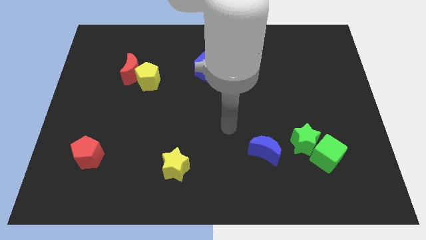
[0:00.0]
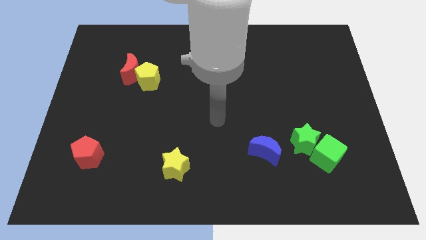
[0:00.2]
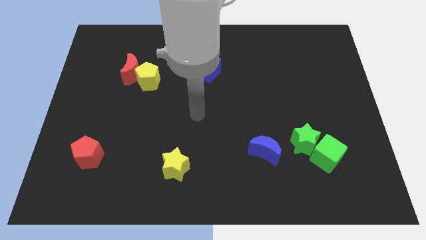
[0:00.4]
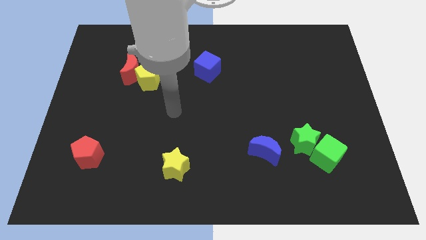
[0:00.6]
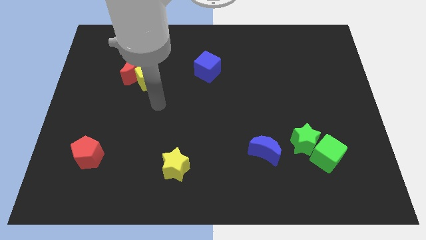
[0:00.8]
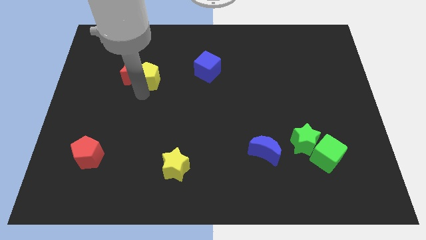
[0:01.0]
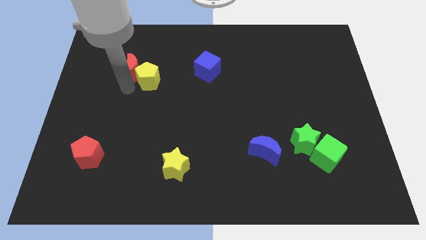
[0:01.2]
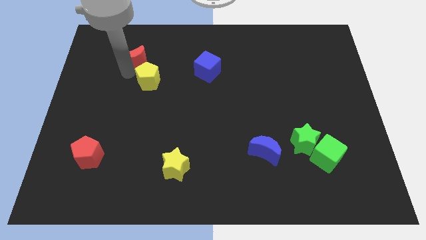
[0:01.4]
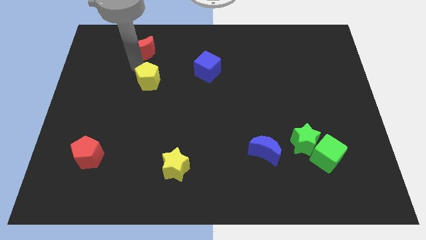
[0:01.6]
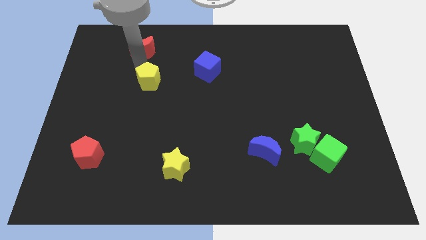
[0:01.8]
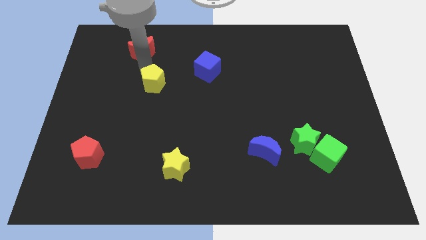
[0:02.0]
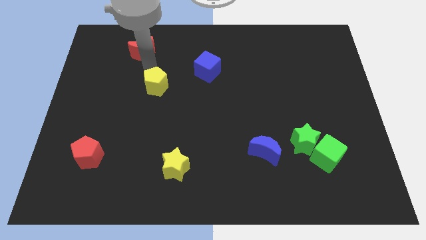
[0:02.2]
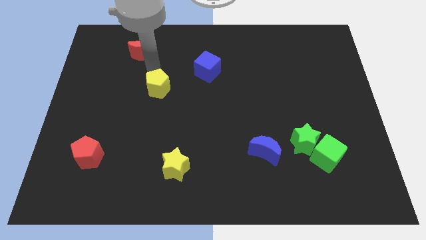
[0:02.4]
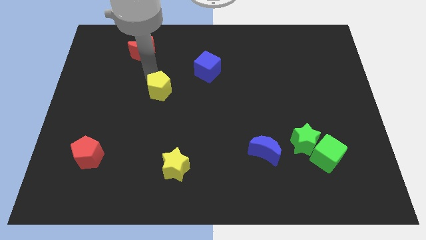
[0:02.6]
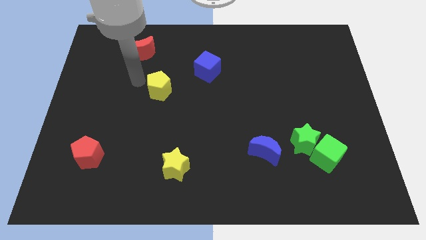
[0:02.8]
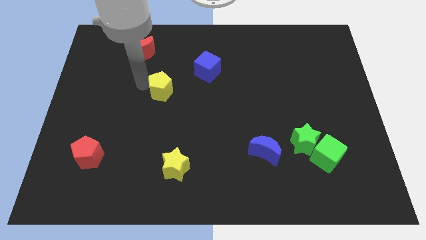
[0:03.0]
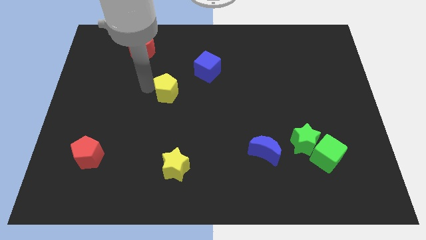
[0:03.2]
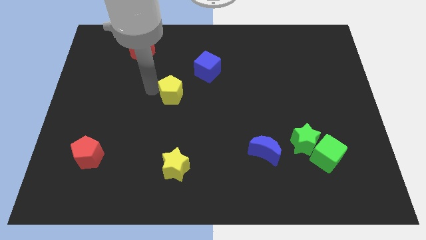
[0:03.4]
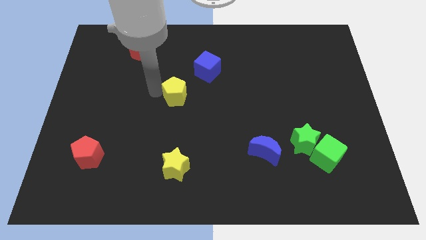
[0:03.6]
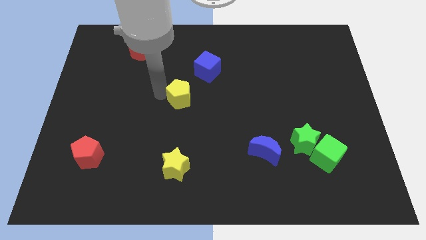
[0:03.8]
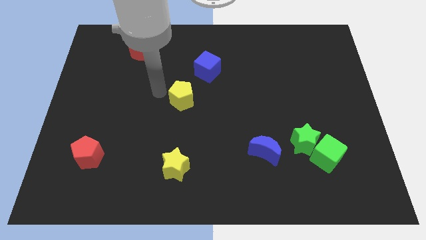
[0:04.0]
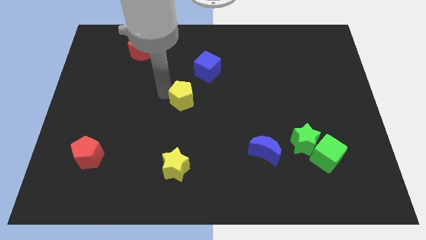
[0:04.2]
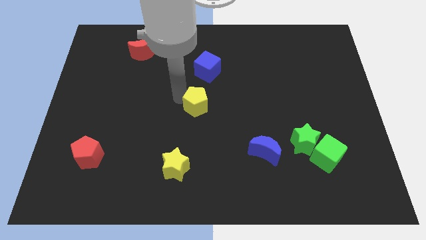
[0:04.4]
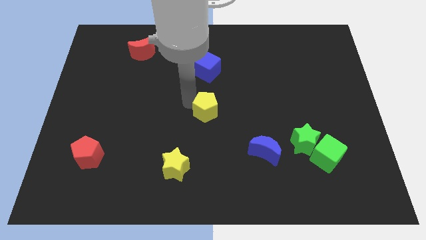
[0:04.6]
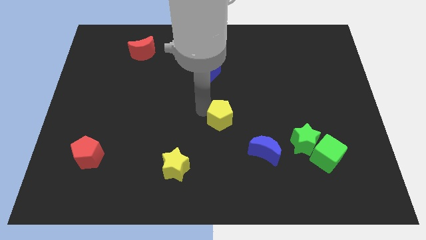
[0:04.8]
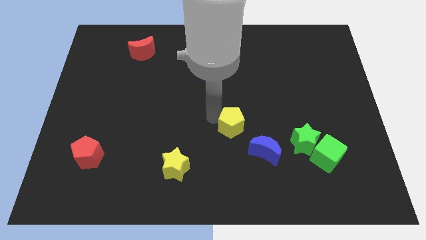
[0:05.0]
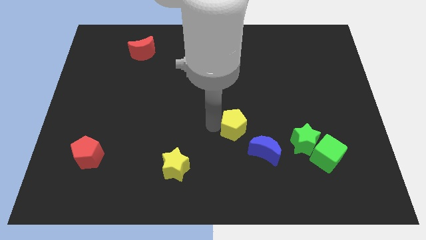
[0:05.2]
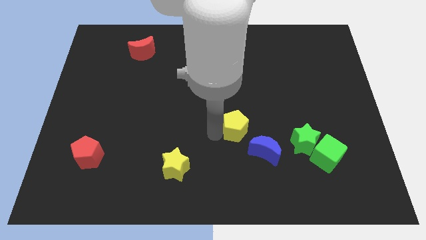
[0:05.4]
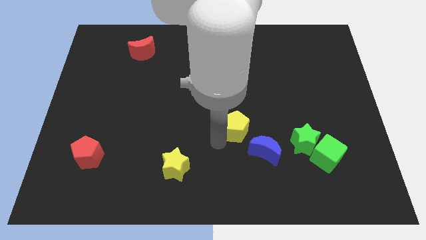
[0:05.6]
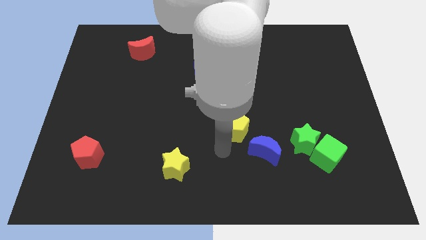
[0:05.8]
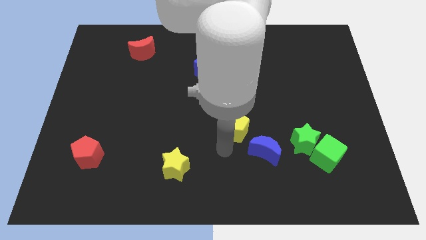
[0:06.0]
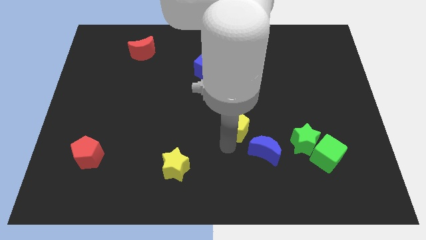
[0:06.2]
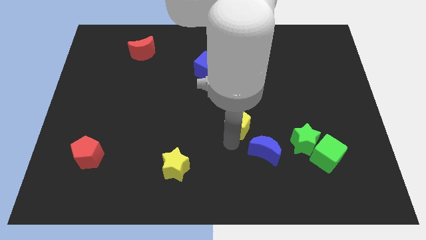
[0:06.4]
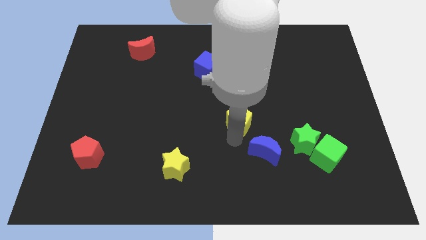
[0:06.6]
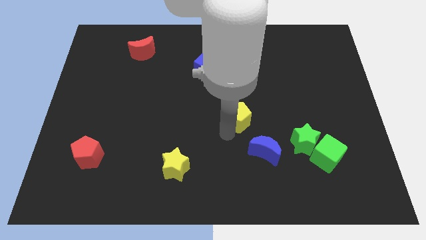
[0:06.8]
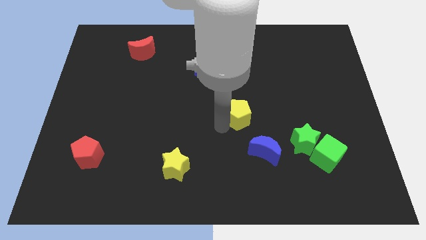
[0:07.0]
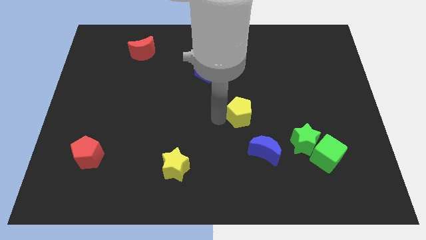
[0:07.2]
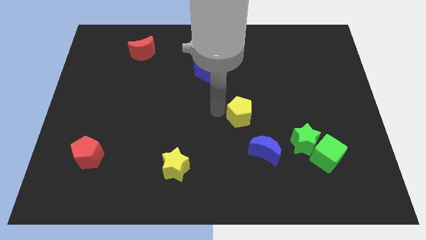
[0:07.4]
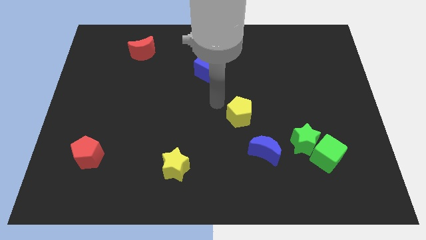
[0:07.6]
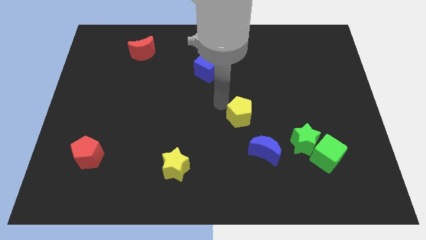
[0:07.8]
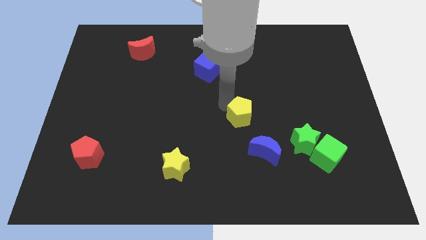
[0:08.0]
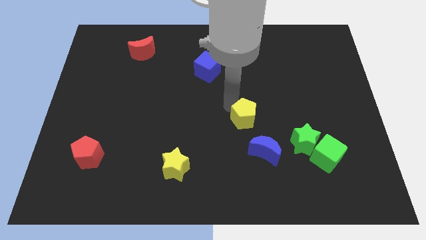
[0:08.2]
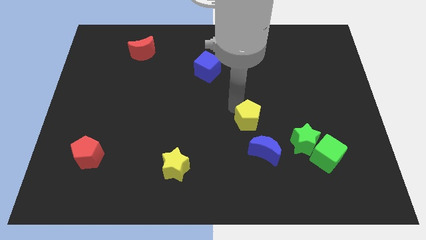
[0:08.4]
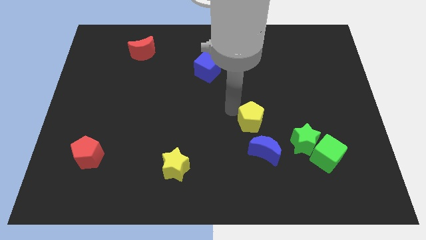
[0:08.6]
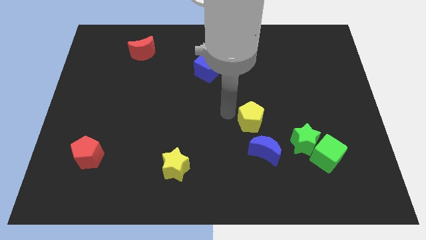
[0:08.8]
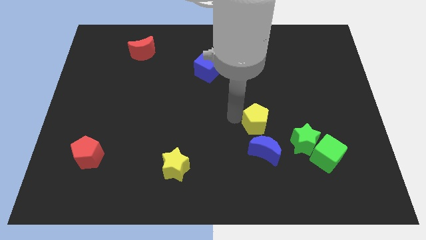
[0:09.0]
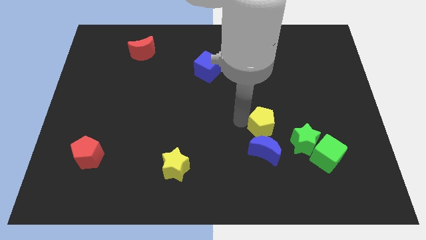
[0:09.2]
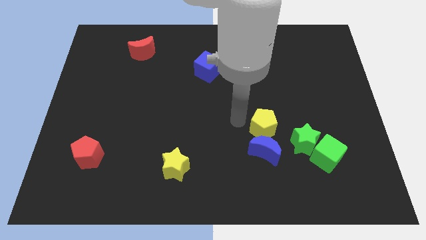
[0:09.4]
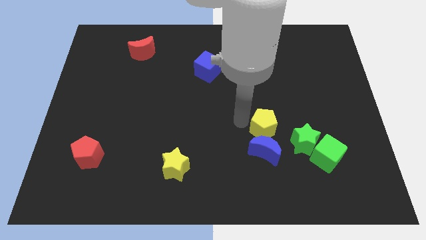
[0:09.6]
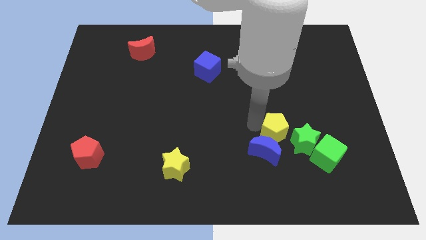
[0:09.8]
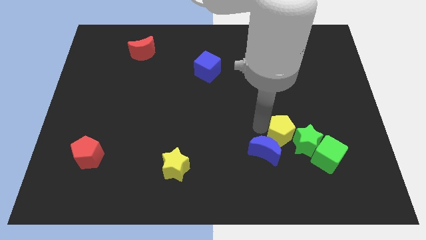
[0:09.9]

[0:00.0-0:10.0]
push the yellow pentagon towards the green star

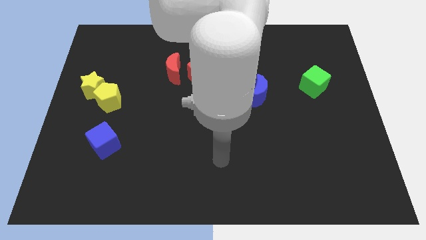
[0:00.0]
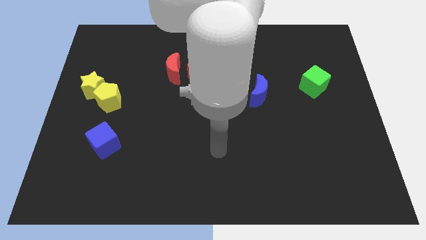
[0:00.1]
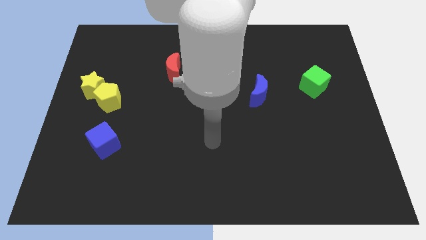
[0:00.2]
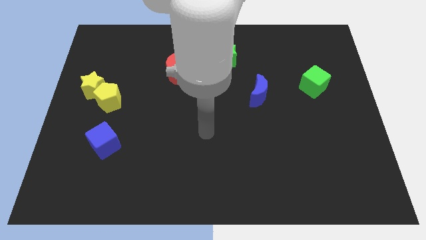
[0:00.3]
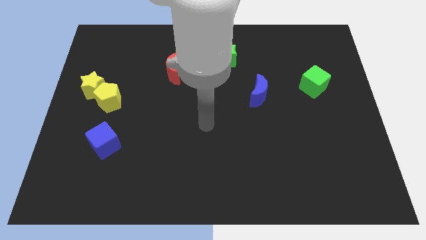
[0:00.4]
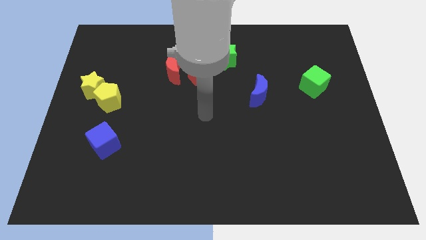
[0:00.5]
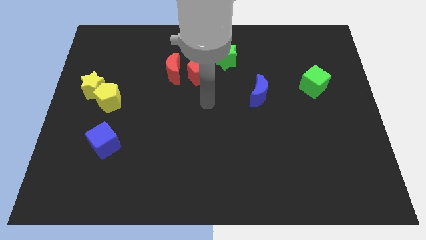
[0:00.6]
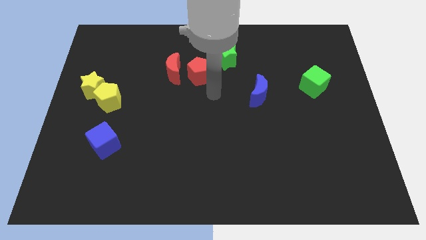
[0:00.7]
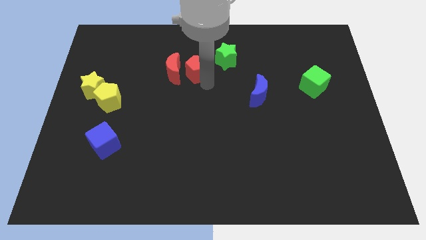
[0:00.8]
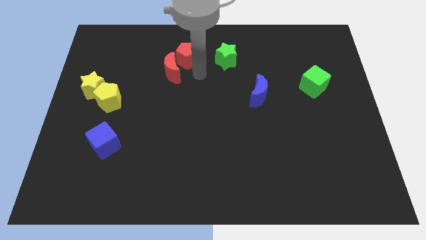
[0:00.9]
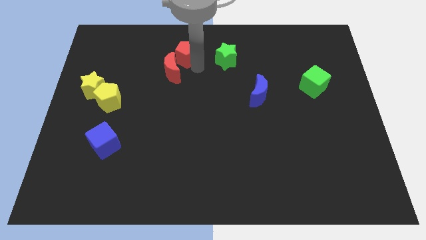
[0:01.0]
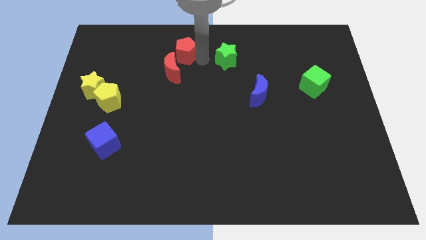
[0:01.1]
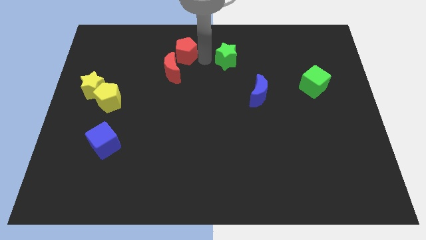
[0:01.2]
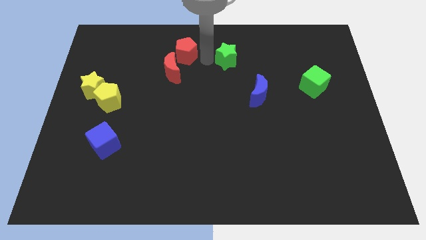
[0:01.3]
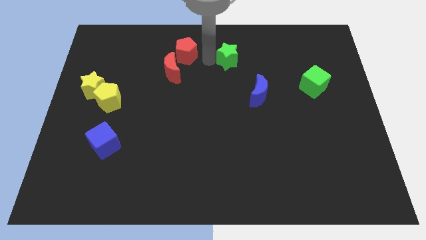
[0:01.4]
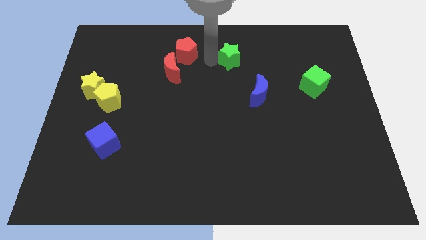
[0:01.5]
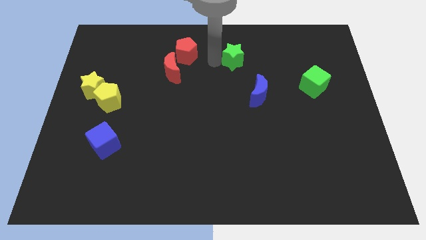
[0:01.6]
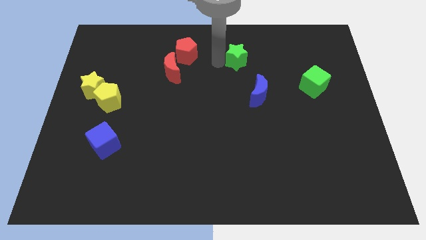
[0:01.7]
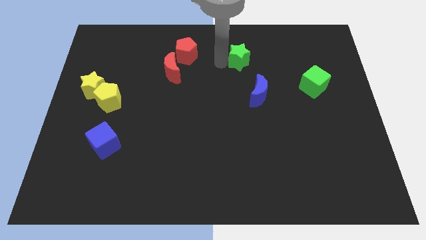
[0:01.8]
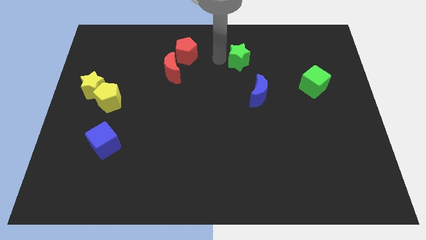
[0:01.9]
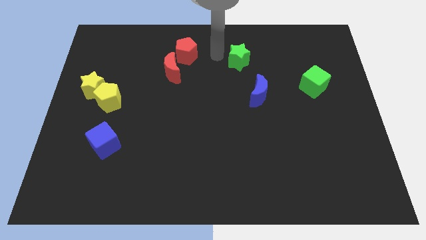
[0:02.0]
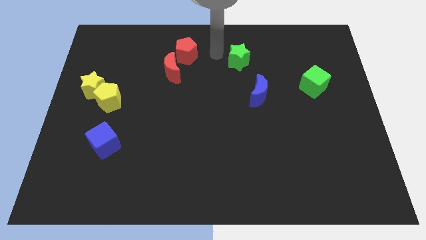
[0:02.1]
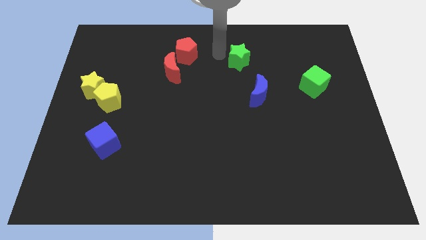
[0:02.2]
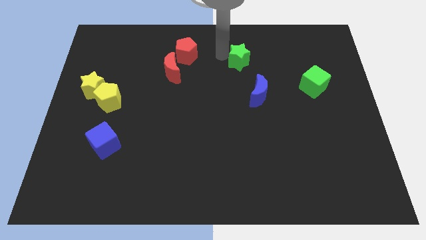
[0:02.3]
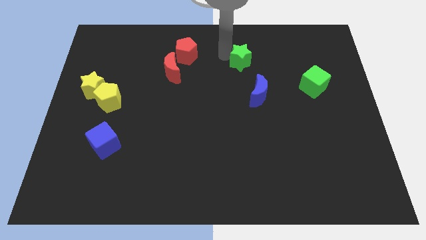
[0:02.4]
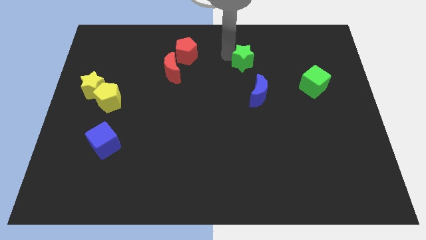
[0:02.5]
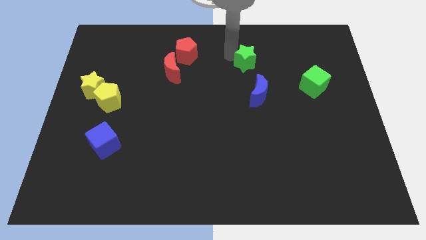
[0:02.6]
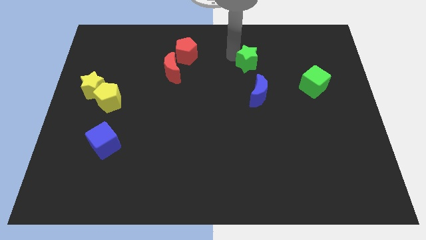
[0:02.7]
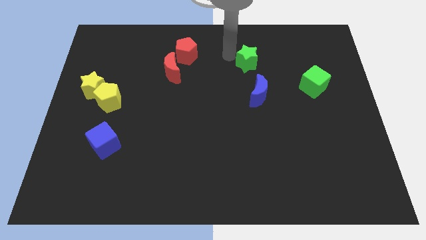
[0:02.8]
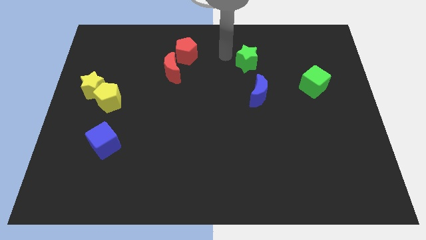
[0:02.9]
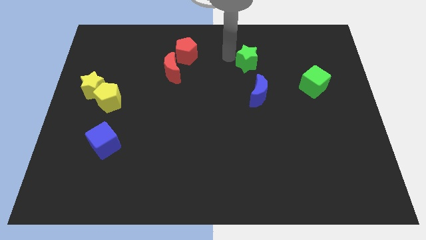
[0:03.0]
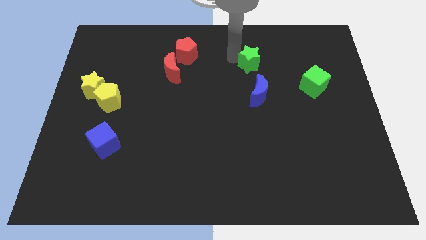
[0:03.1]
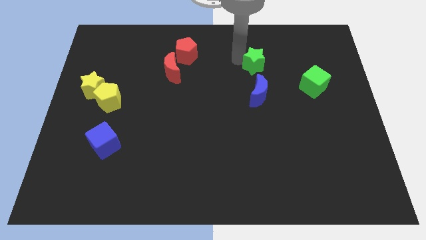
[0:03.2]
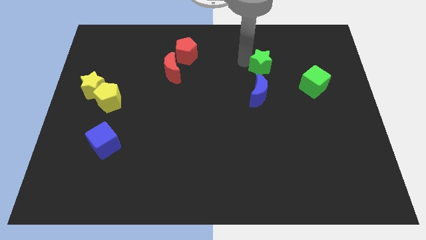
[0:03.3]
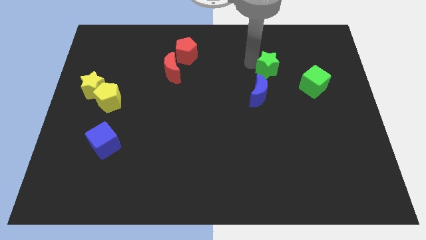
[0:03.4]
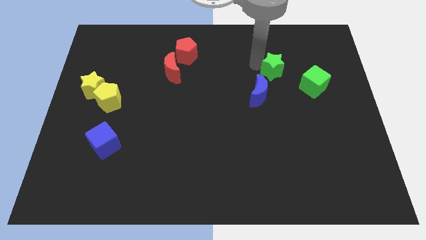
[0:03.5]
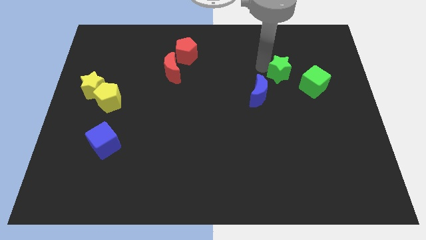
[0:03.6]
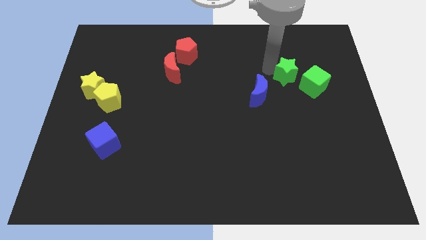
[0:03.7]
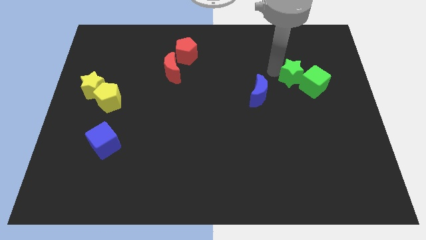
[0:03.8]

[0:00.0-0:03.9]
move the green star next to the green cube
